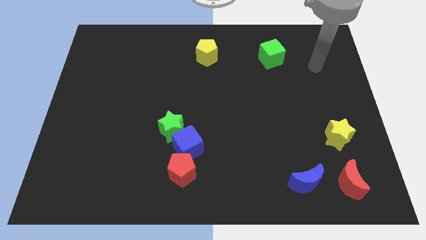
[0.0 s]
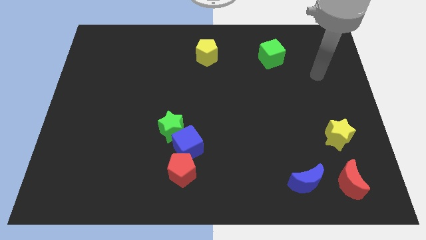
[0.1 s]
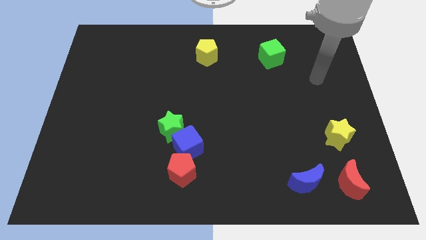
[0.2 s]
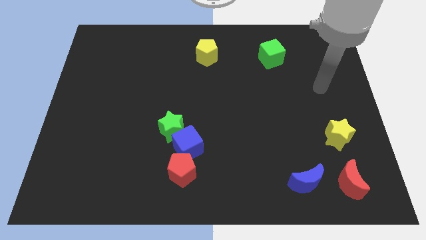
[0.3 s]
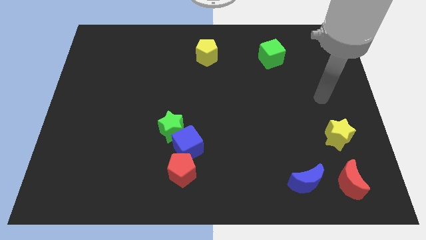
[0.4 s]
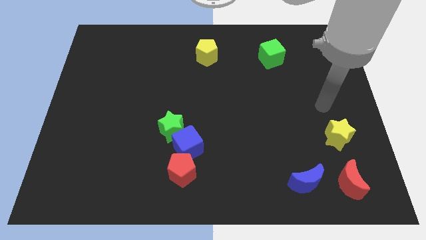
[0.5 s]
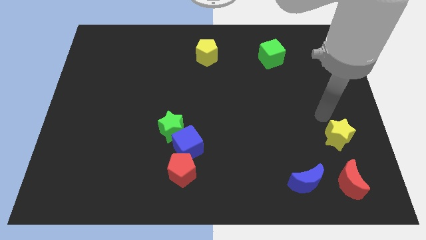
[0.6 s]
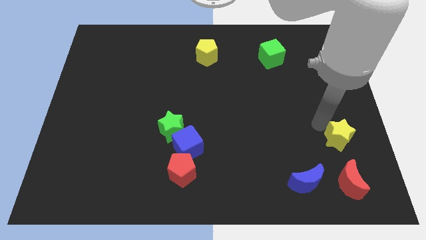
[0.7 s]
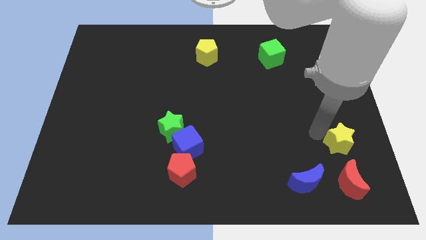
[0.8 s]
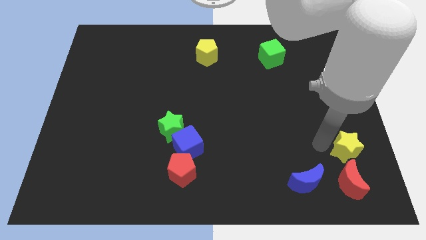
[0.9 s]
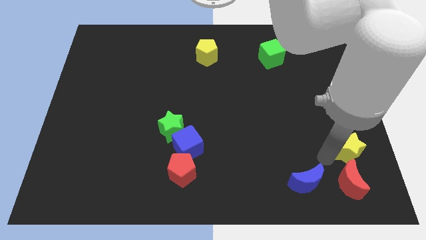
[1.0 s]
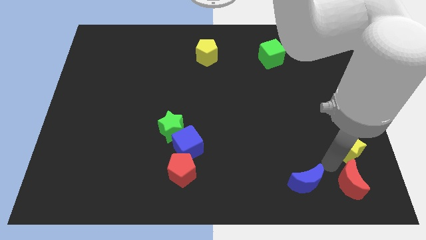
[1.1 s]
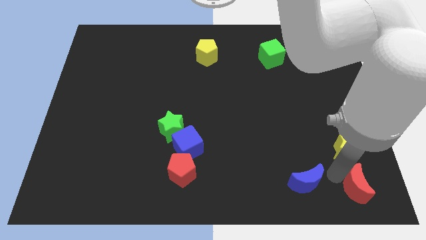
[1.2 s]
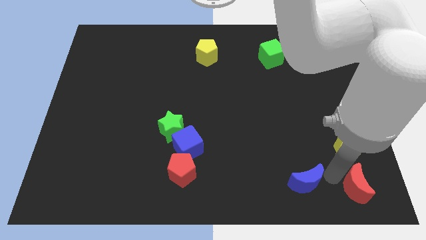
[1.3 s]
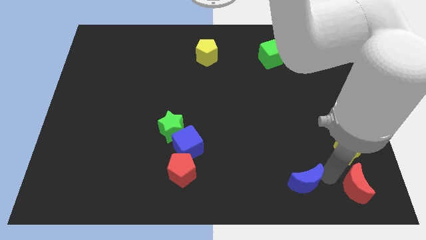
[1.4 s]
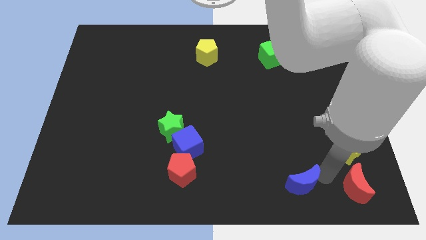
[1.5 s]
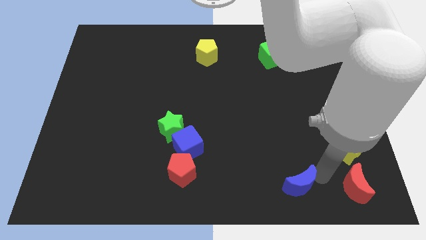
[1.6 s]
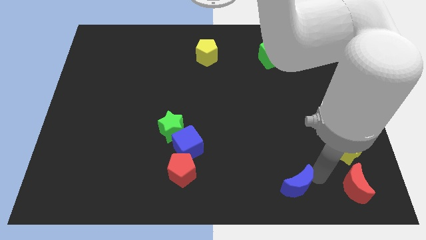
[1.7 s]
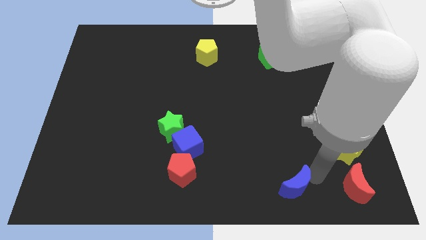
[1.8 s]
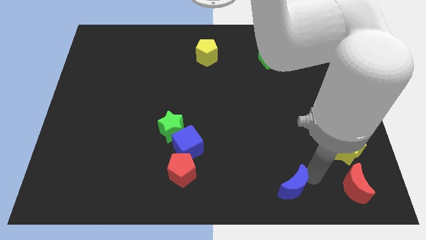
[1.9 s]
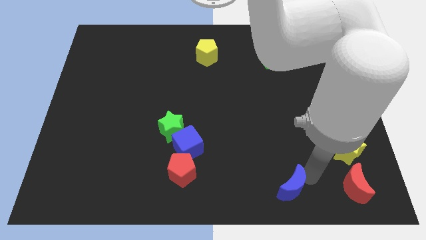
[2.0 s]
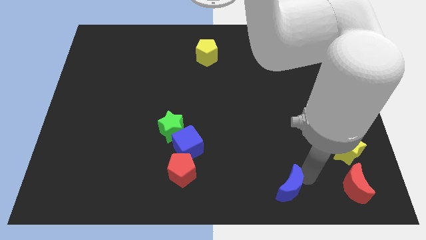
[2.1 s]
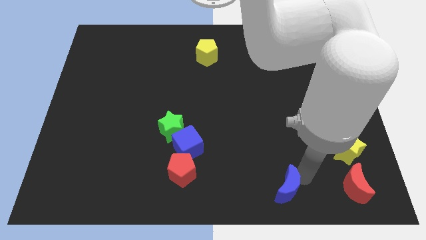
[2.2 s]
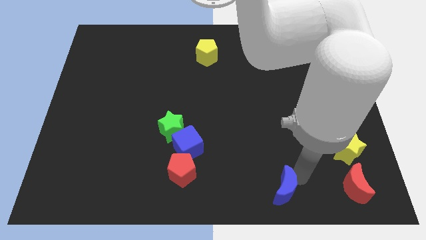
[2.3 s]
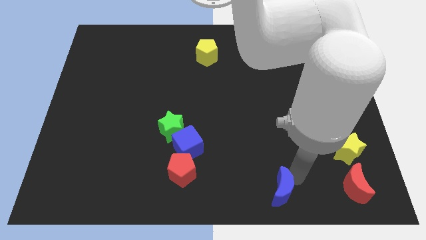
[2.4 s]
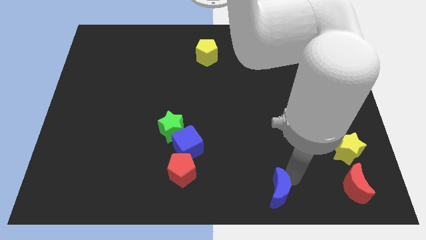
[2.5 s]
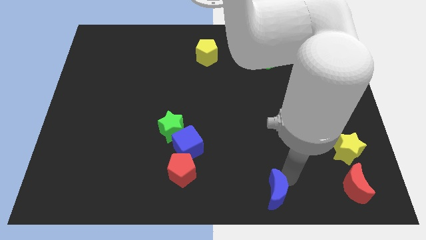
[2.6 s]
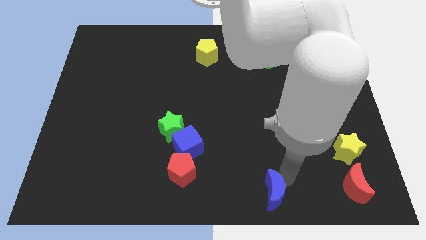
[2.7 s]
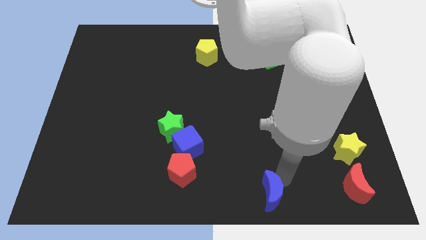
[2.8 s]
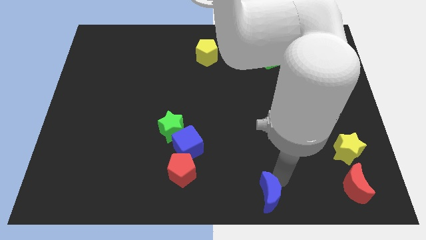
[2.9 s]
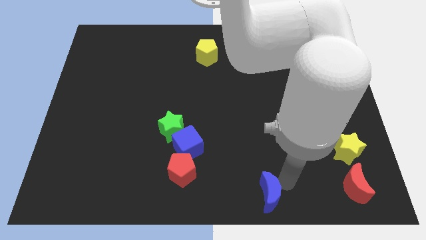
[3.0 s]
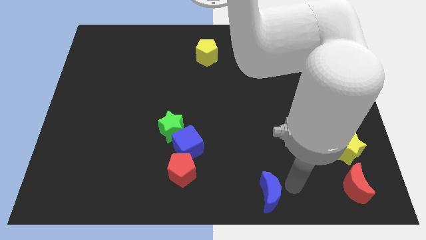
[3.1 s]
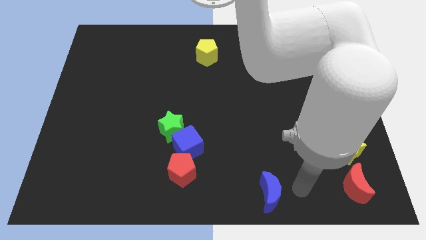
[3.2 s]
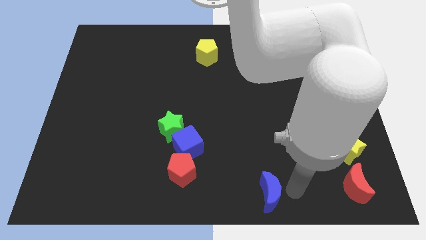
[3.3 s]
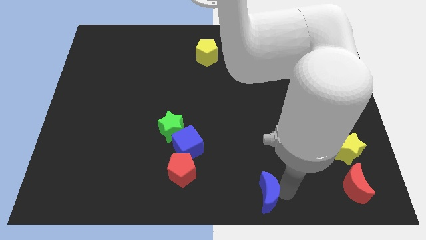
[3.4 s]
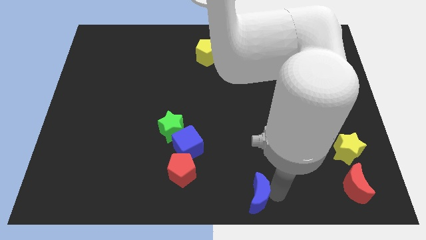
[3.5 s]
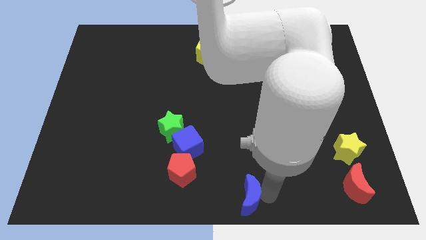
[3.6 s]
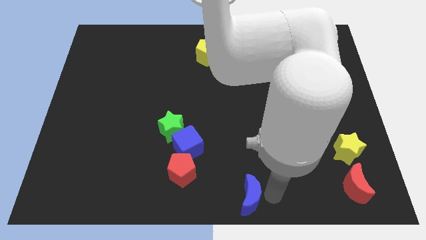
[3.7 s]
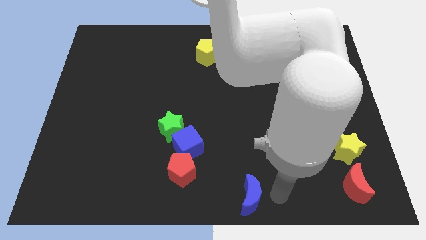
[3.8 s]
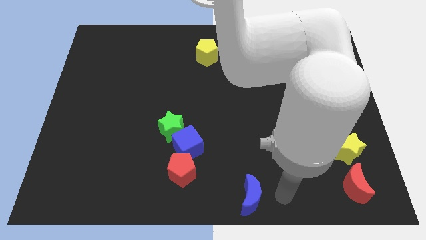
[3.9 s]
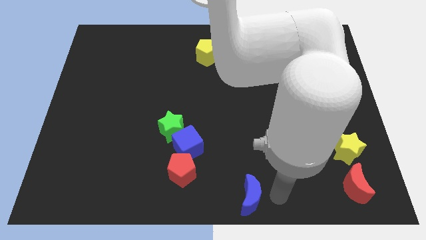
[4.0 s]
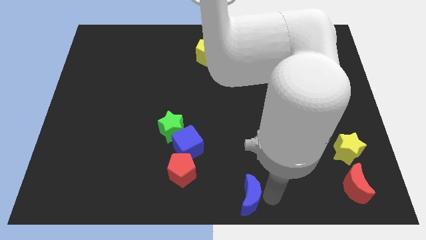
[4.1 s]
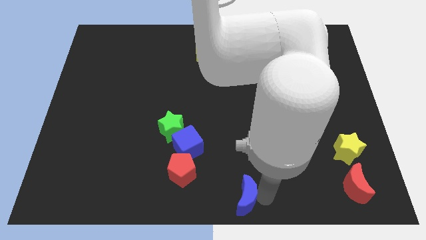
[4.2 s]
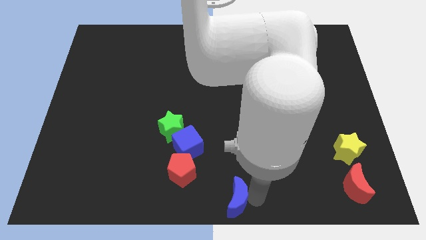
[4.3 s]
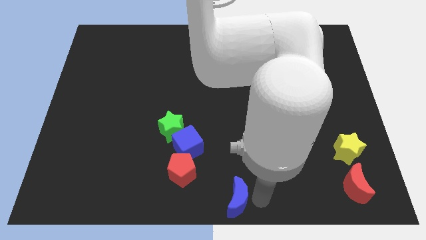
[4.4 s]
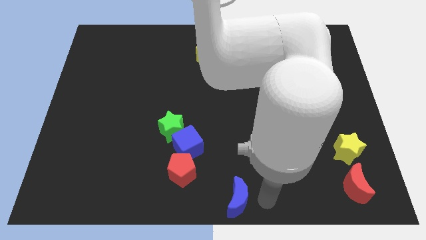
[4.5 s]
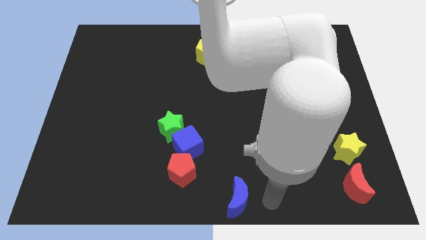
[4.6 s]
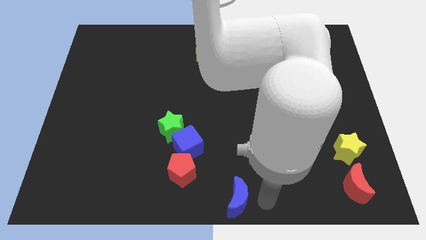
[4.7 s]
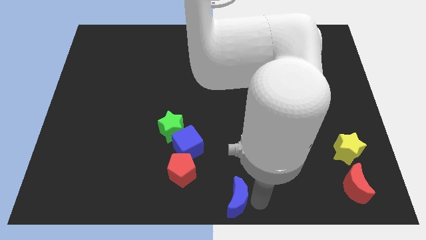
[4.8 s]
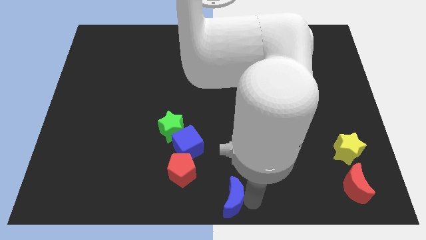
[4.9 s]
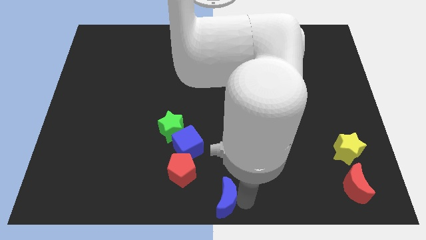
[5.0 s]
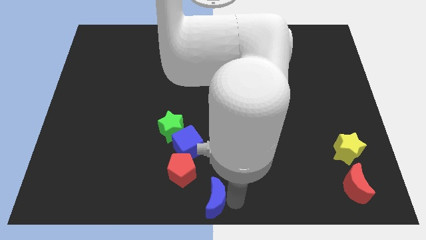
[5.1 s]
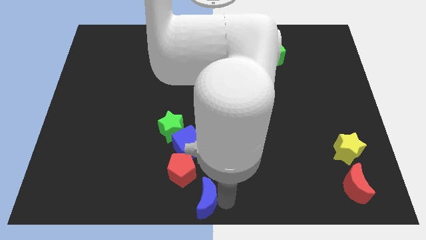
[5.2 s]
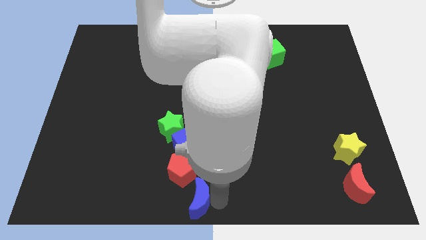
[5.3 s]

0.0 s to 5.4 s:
move the blue moon left

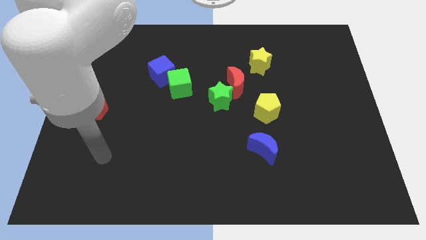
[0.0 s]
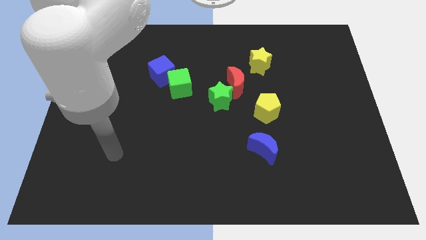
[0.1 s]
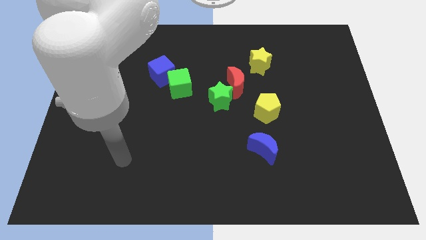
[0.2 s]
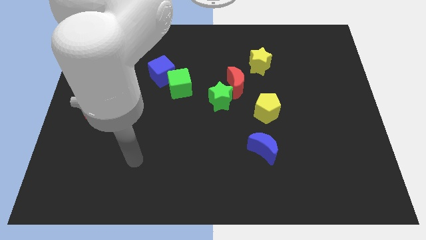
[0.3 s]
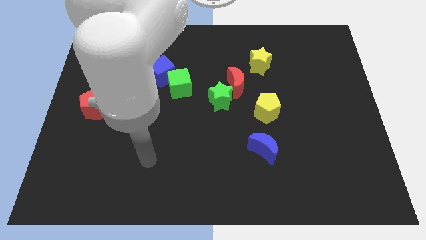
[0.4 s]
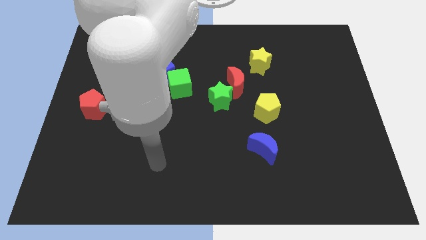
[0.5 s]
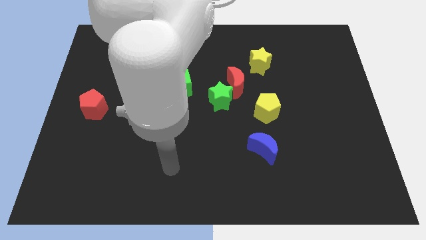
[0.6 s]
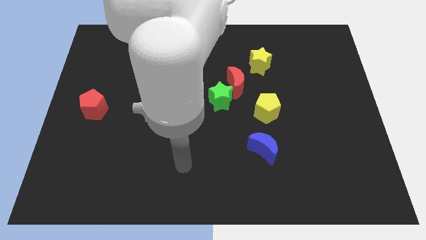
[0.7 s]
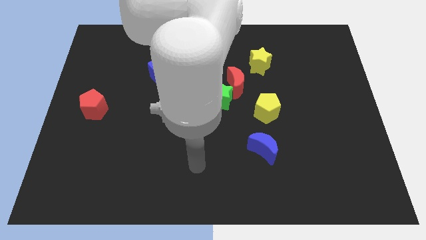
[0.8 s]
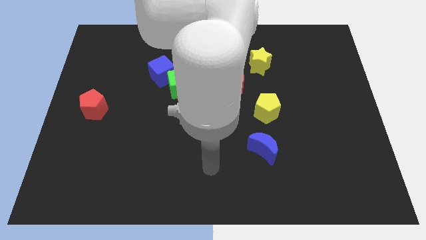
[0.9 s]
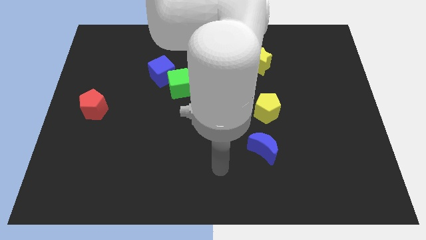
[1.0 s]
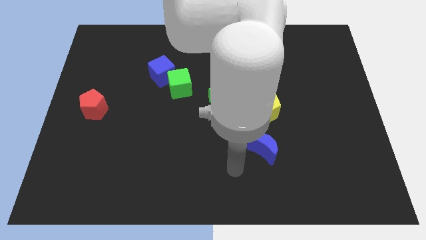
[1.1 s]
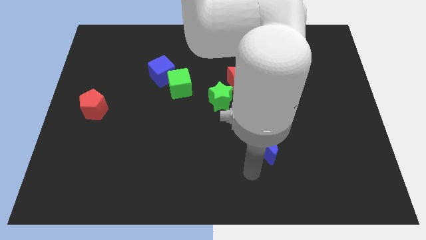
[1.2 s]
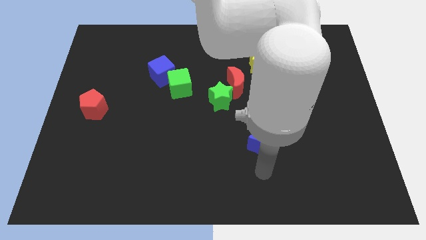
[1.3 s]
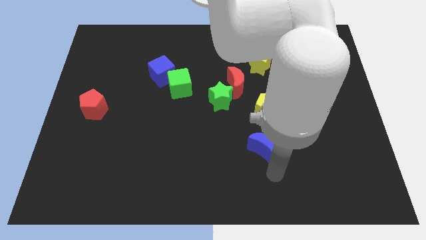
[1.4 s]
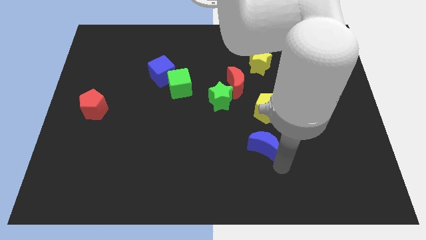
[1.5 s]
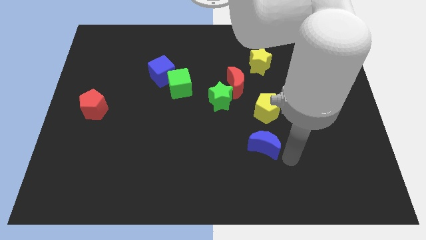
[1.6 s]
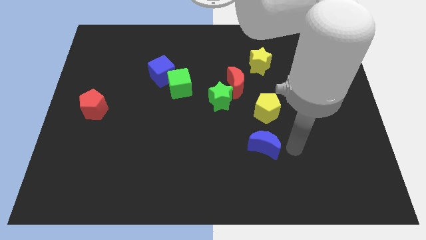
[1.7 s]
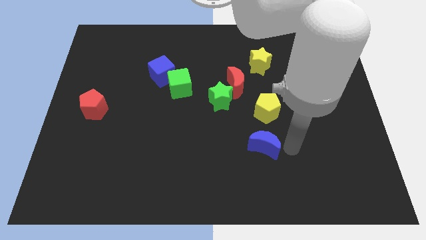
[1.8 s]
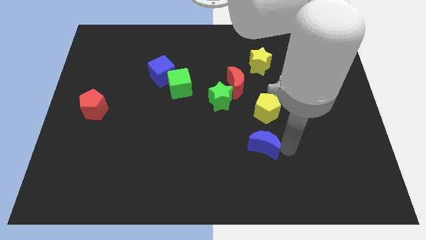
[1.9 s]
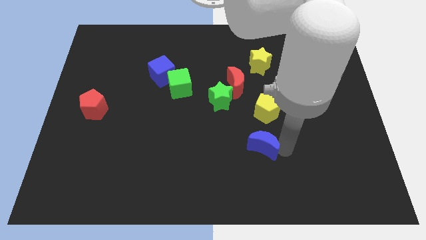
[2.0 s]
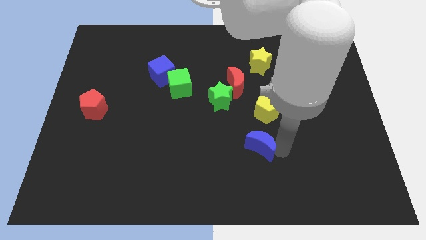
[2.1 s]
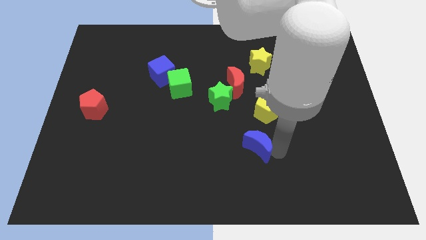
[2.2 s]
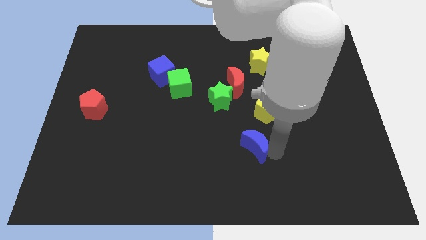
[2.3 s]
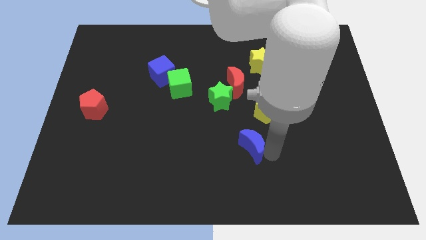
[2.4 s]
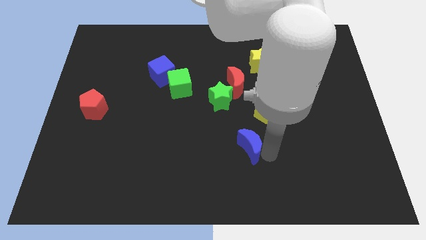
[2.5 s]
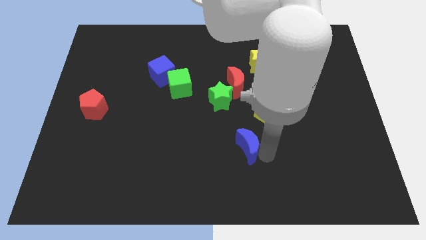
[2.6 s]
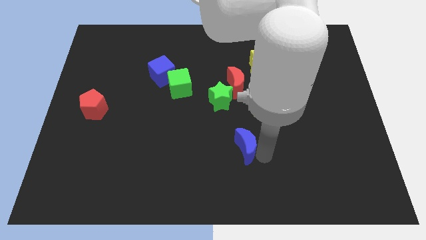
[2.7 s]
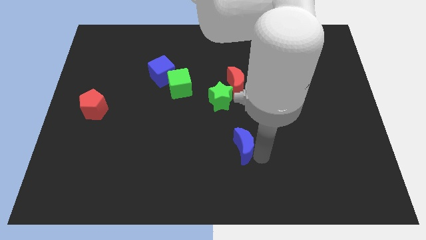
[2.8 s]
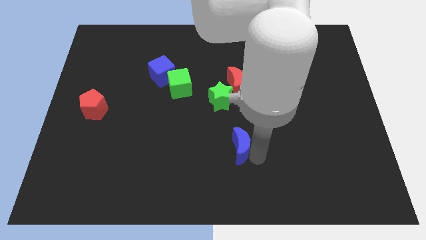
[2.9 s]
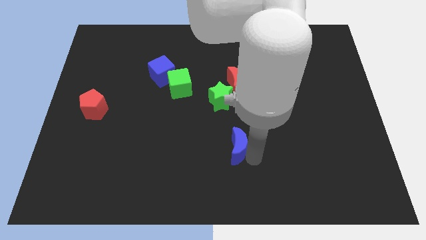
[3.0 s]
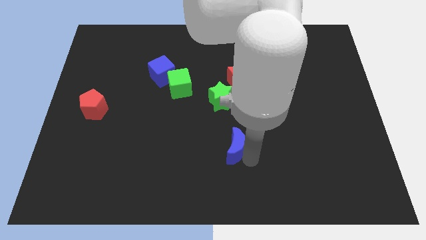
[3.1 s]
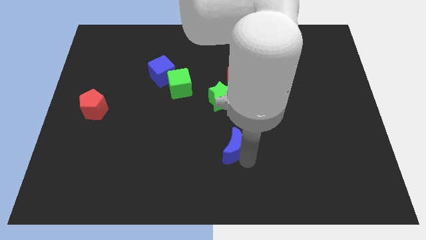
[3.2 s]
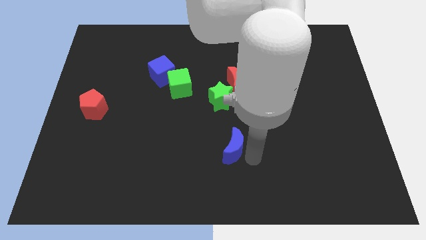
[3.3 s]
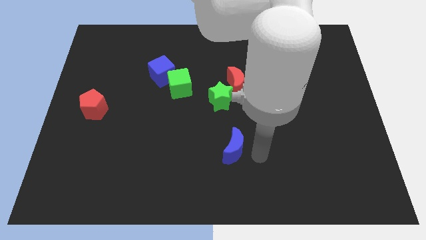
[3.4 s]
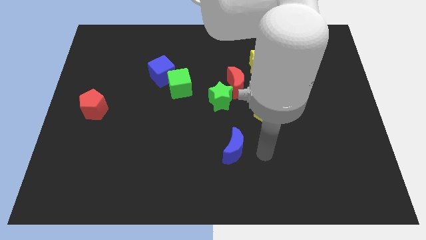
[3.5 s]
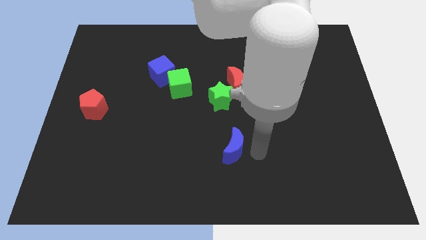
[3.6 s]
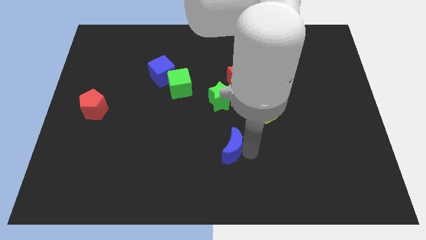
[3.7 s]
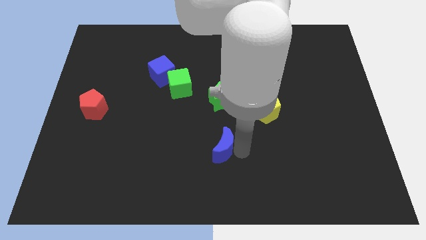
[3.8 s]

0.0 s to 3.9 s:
slightly slide the blue moon to the left
